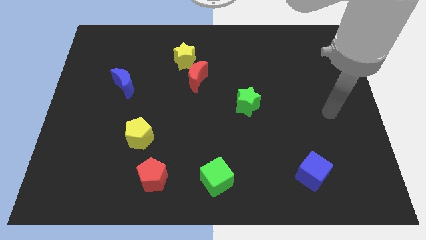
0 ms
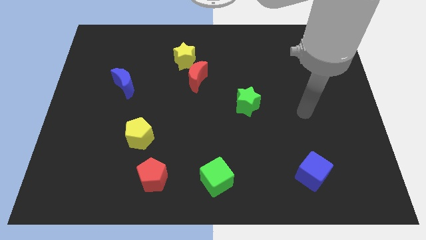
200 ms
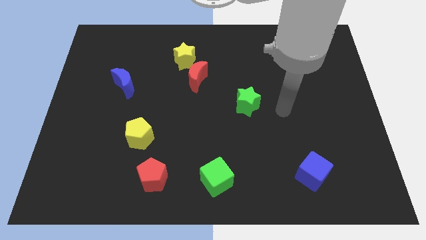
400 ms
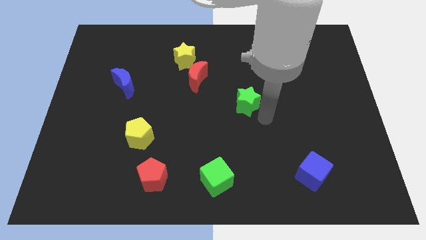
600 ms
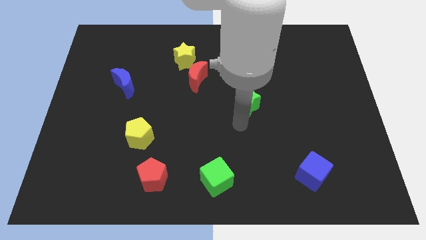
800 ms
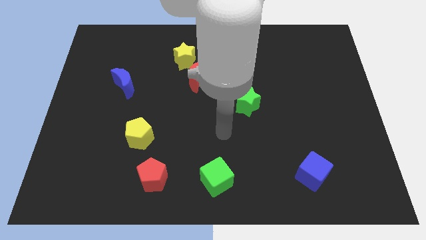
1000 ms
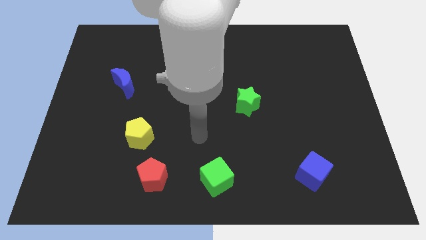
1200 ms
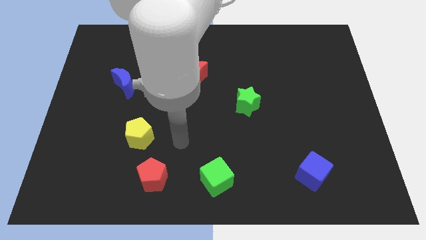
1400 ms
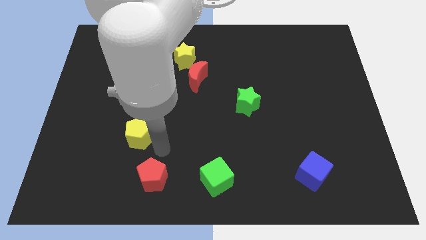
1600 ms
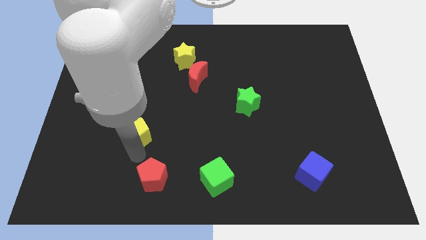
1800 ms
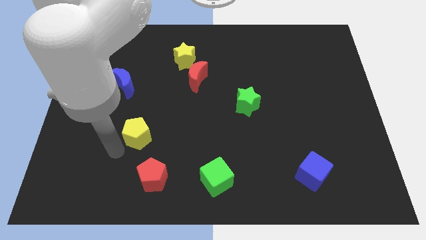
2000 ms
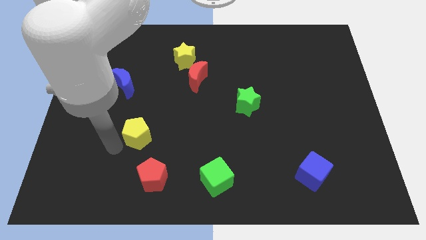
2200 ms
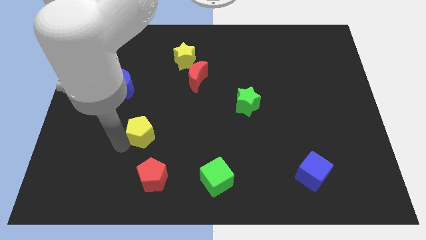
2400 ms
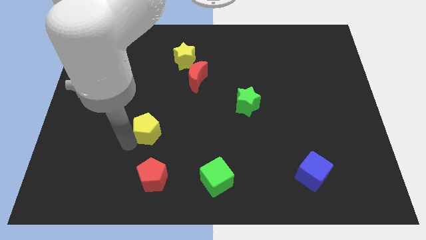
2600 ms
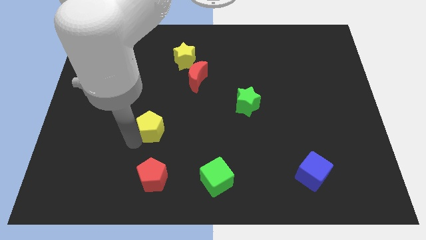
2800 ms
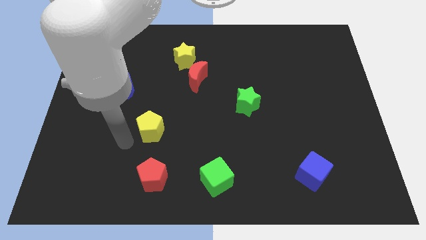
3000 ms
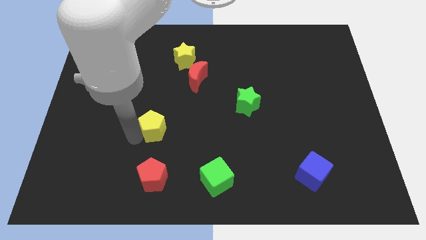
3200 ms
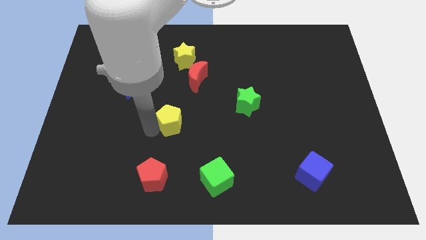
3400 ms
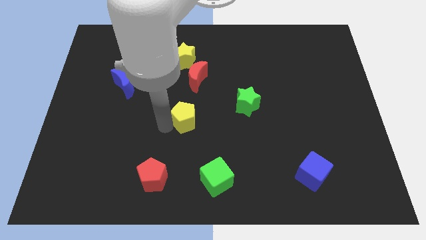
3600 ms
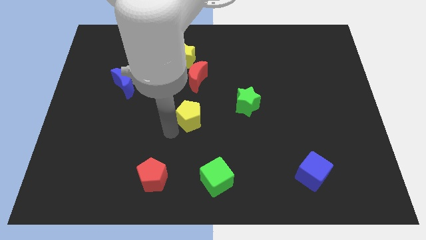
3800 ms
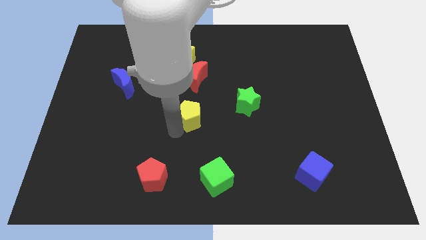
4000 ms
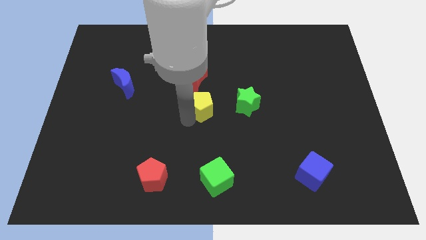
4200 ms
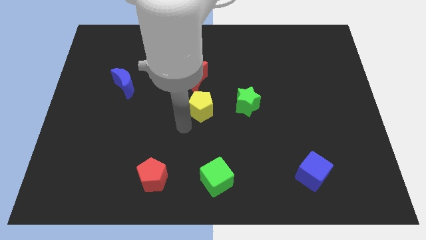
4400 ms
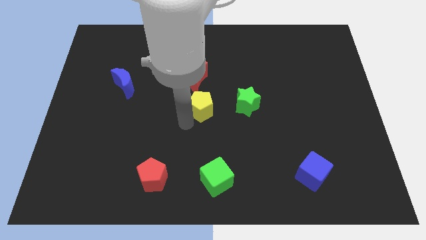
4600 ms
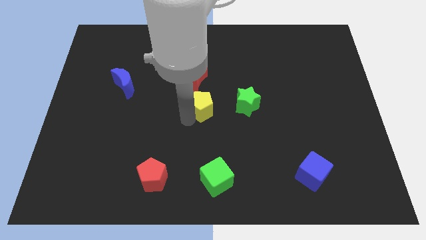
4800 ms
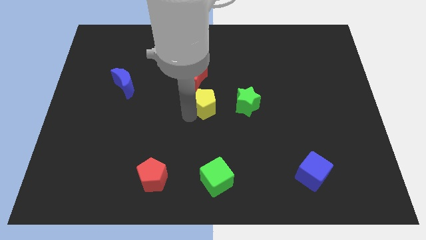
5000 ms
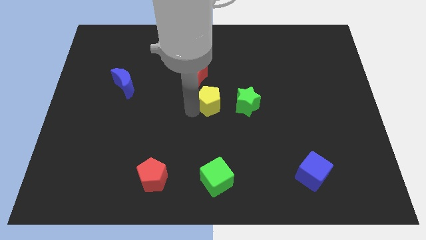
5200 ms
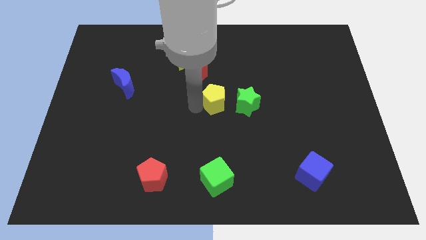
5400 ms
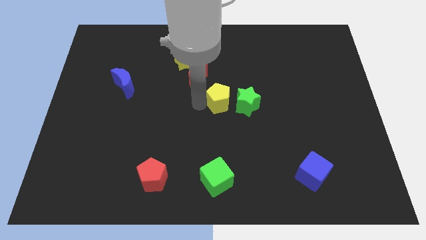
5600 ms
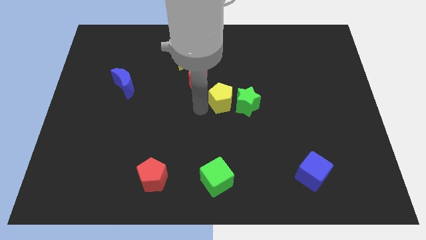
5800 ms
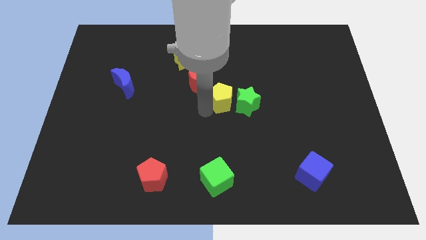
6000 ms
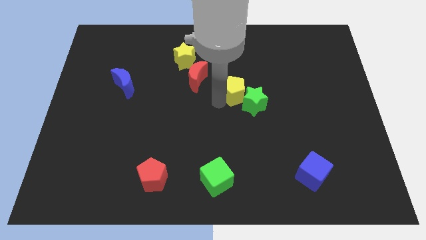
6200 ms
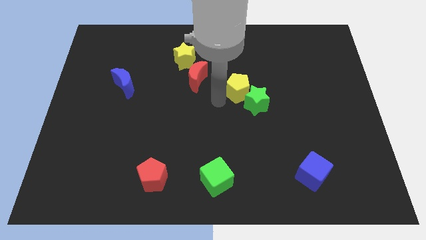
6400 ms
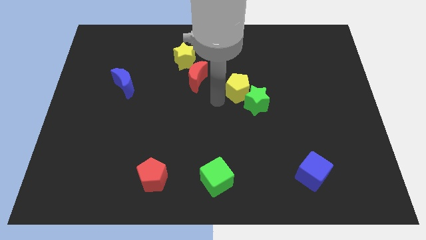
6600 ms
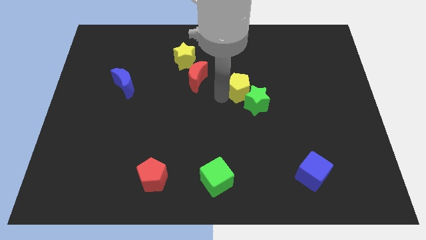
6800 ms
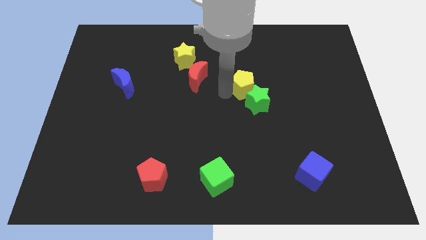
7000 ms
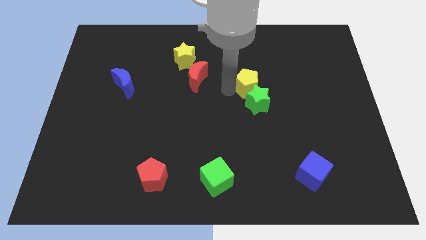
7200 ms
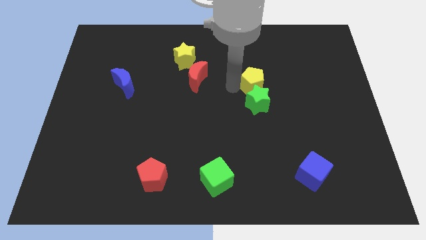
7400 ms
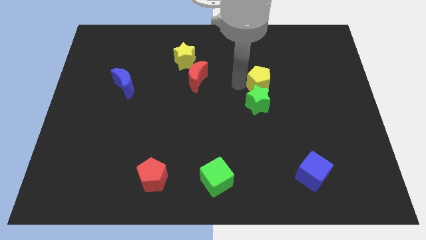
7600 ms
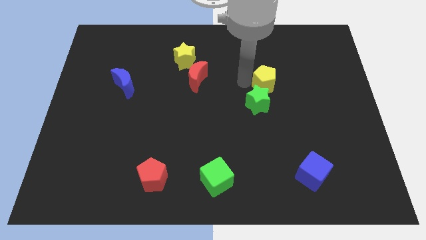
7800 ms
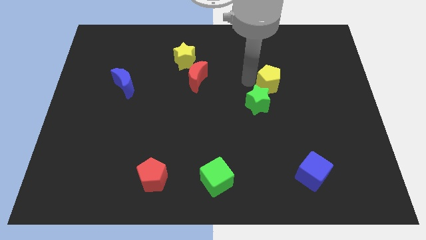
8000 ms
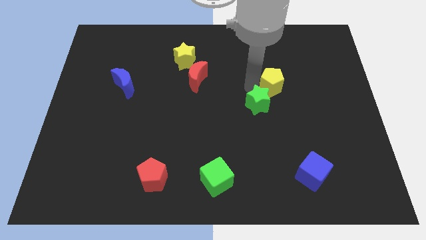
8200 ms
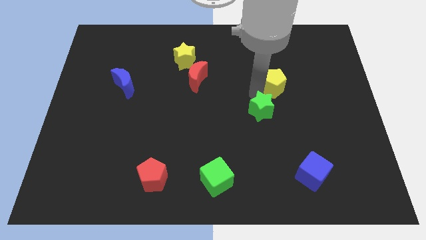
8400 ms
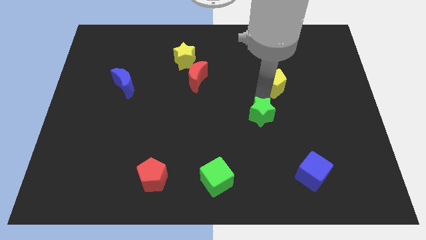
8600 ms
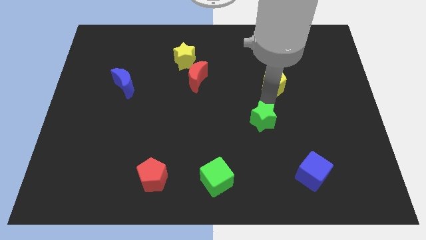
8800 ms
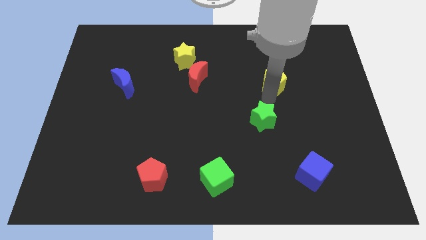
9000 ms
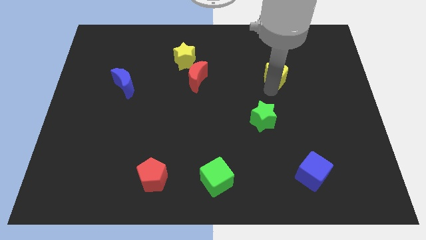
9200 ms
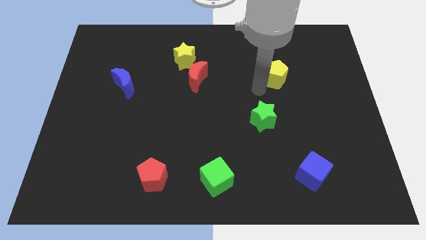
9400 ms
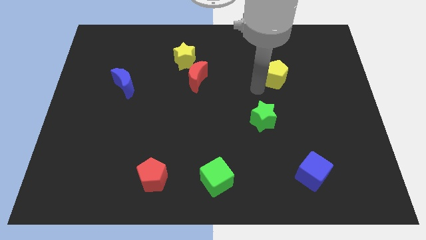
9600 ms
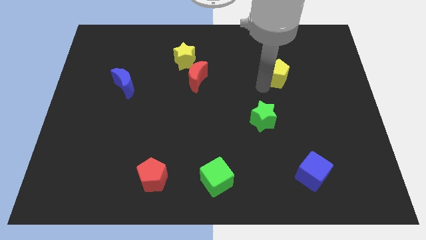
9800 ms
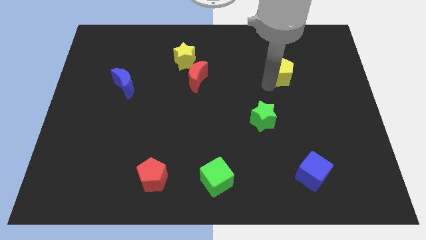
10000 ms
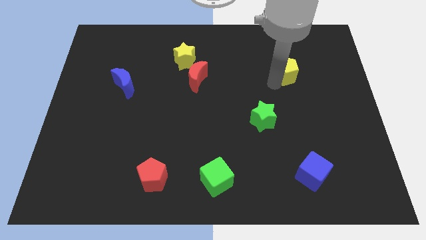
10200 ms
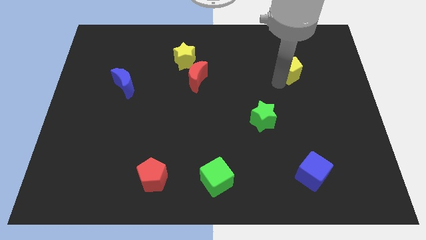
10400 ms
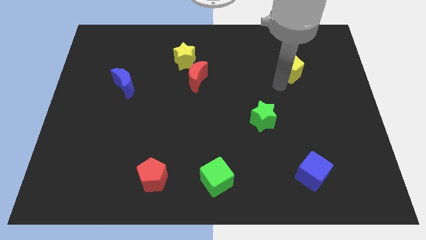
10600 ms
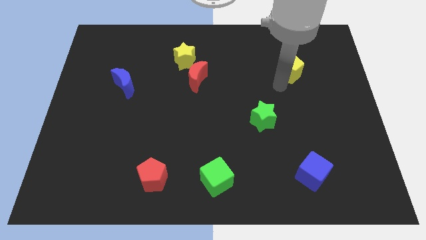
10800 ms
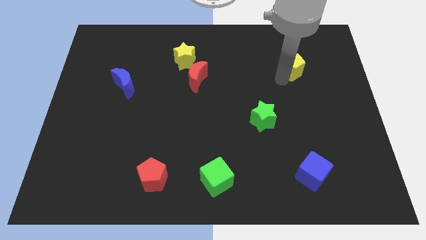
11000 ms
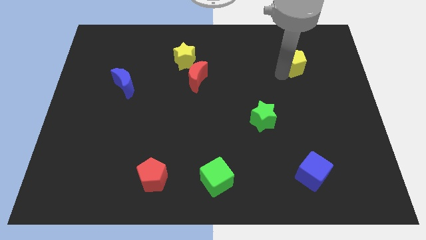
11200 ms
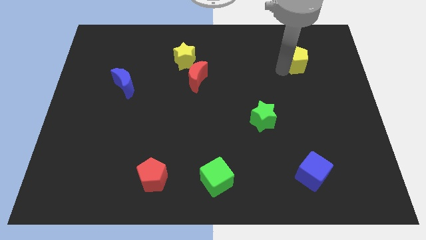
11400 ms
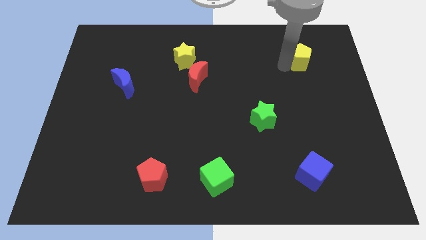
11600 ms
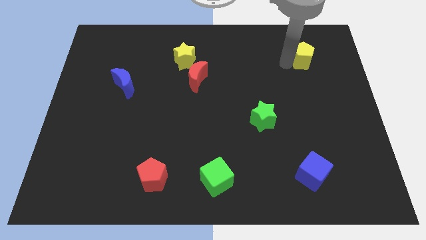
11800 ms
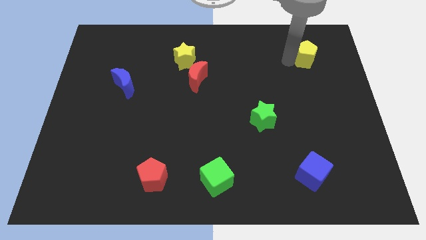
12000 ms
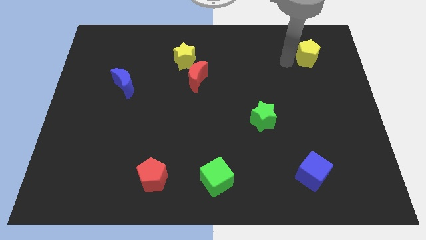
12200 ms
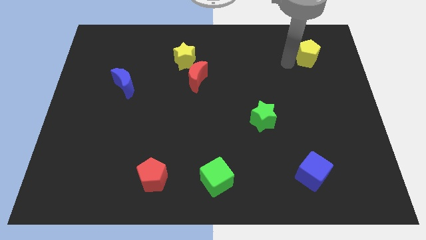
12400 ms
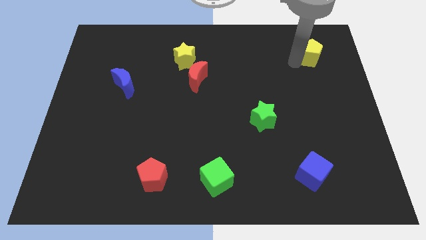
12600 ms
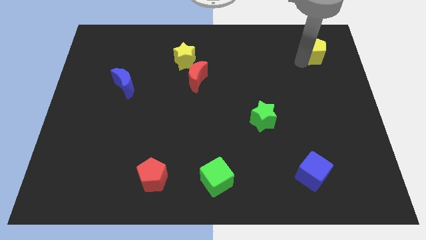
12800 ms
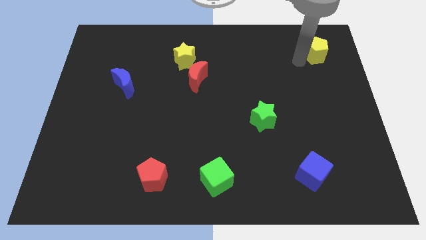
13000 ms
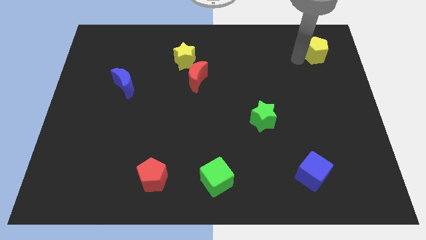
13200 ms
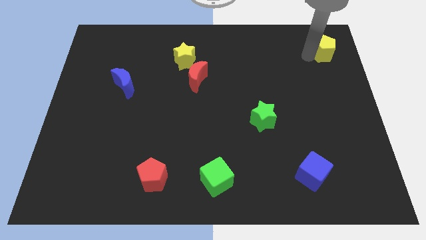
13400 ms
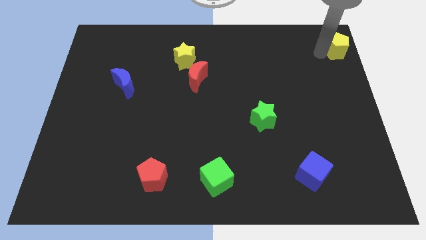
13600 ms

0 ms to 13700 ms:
push the yellow pentagon to the top right of the board

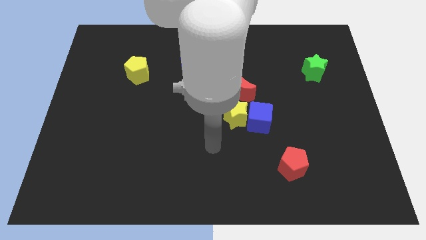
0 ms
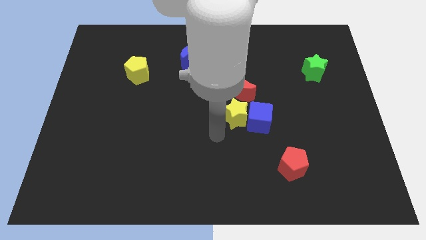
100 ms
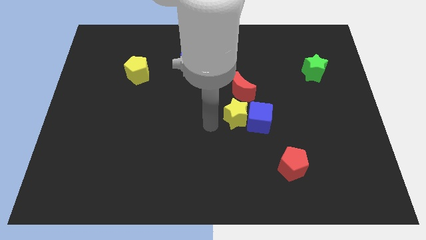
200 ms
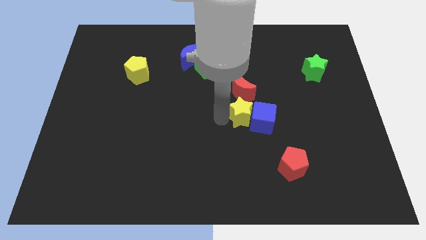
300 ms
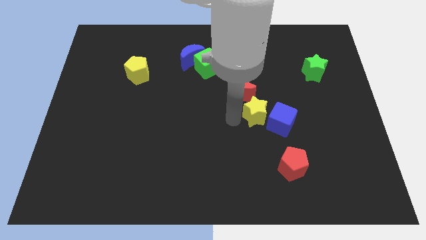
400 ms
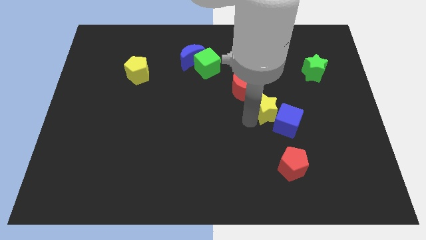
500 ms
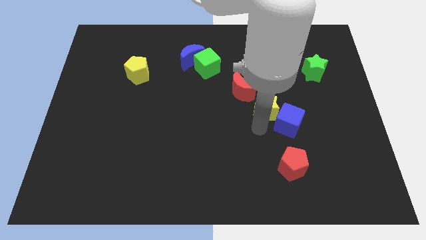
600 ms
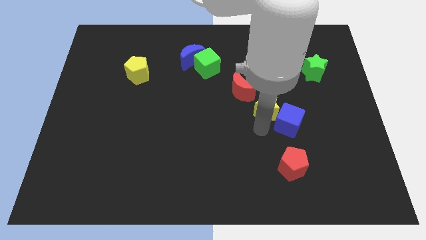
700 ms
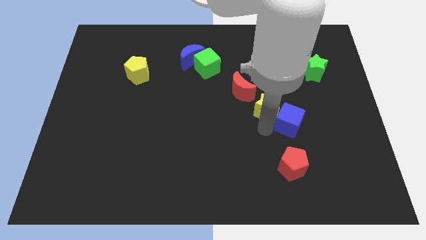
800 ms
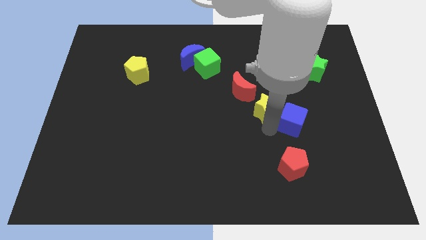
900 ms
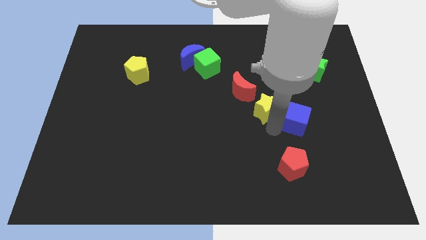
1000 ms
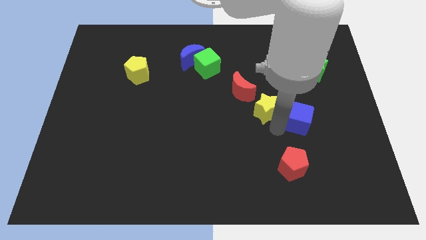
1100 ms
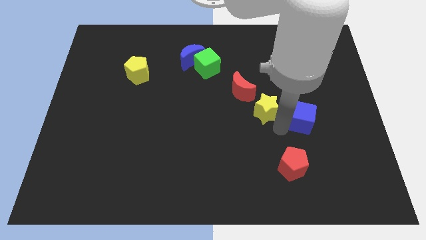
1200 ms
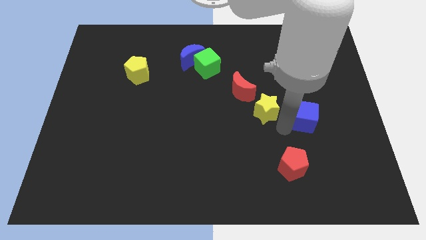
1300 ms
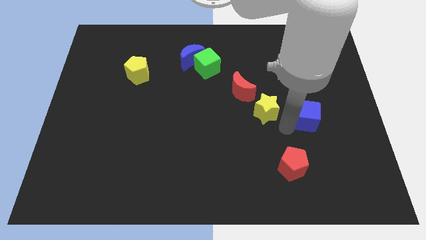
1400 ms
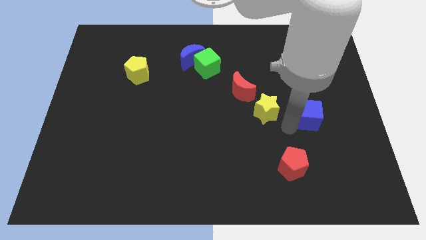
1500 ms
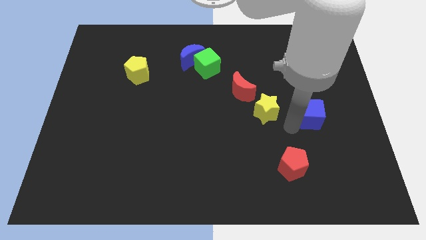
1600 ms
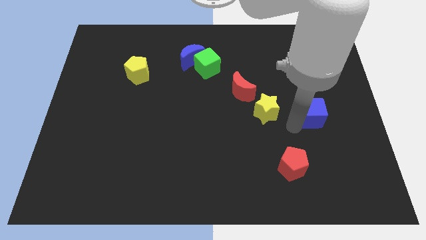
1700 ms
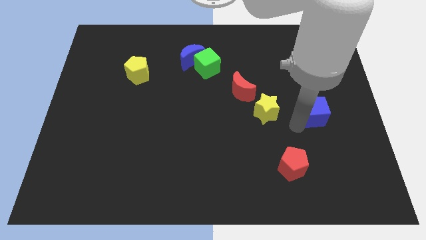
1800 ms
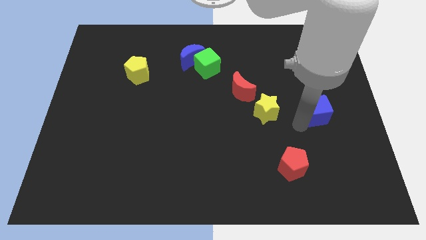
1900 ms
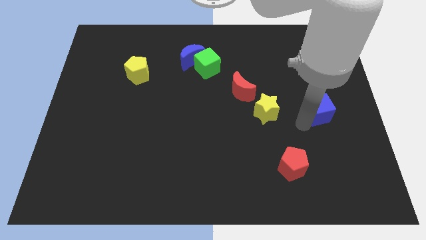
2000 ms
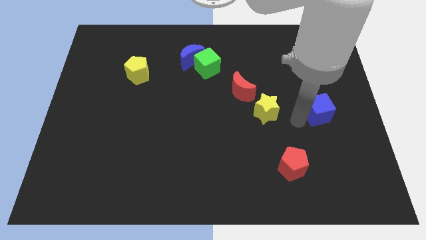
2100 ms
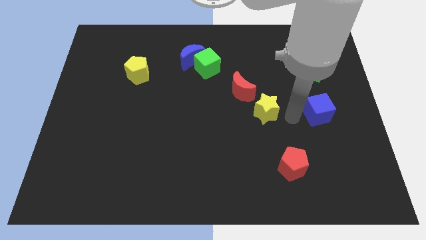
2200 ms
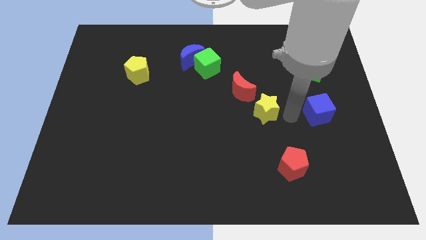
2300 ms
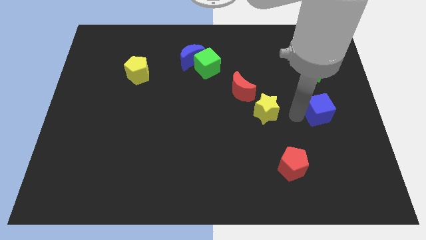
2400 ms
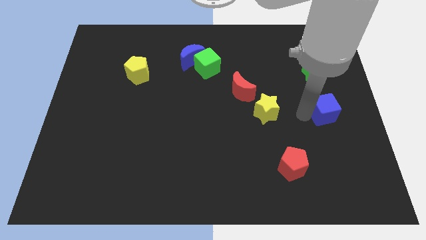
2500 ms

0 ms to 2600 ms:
move the blue cube to the right side of the board
